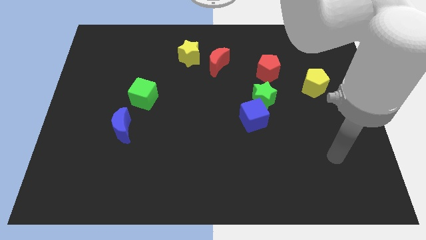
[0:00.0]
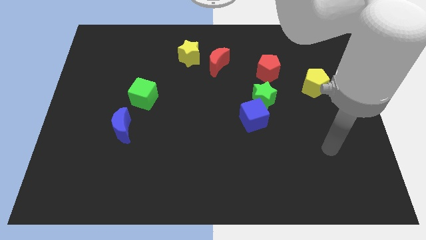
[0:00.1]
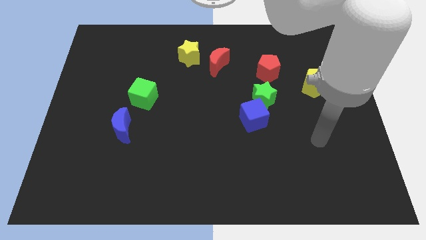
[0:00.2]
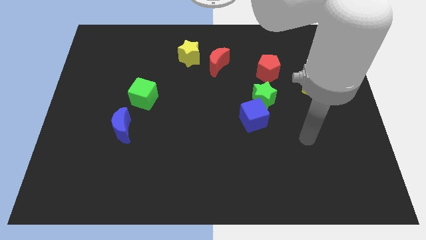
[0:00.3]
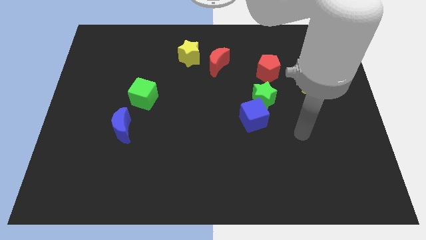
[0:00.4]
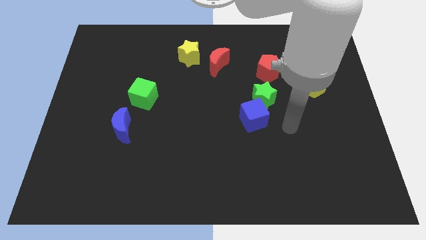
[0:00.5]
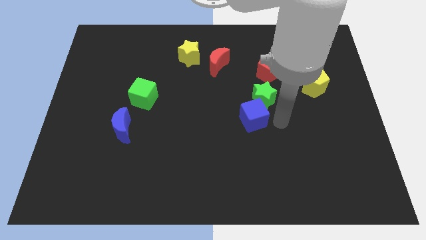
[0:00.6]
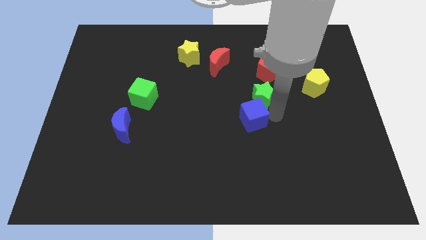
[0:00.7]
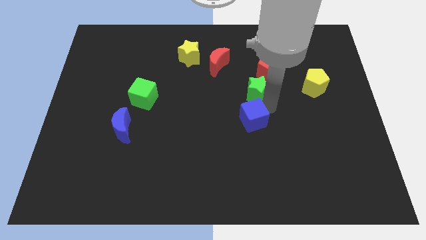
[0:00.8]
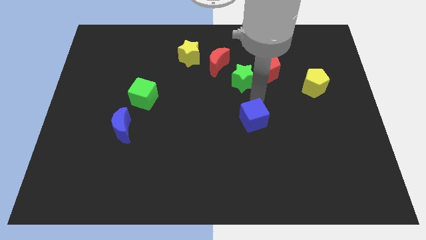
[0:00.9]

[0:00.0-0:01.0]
pull the blue cube apart from the green star

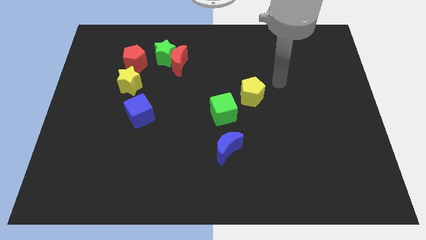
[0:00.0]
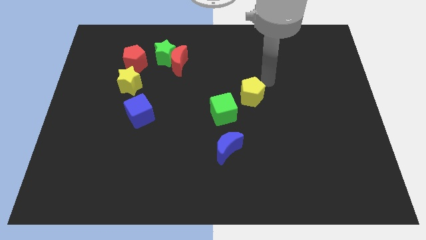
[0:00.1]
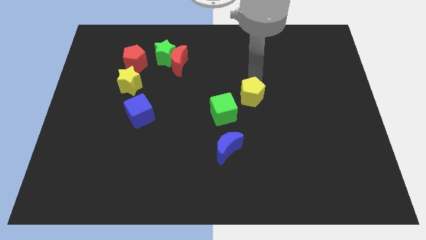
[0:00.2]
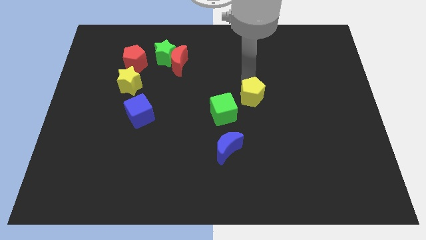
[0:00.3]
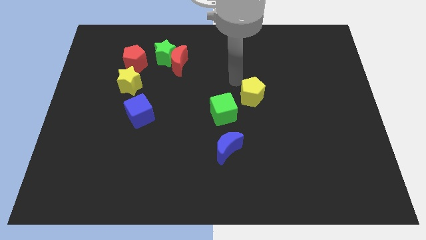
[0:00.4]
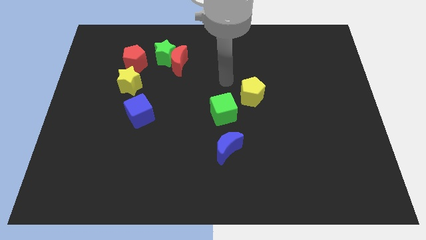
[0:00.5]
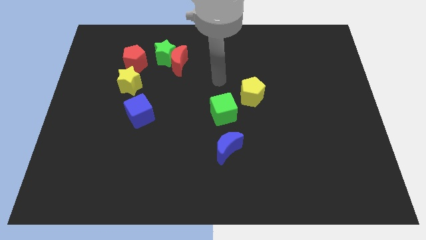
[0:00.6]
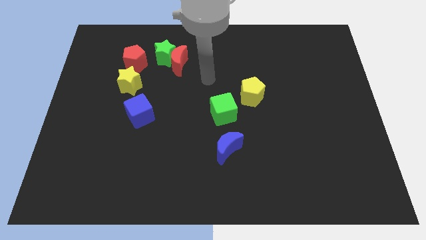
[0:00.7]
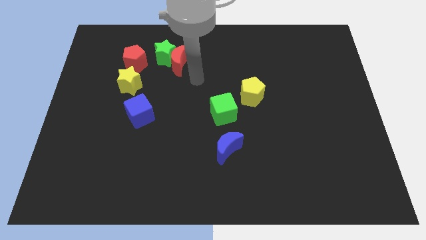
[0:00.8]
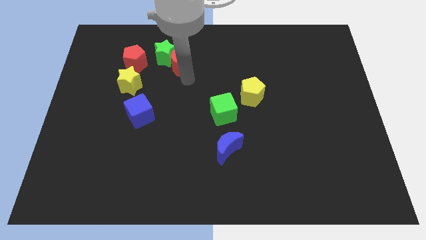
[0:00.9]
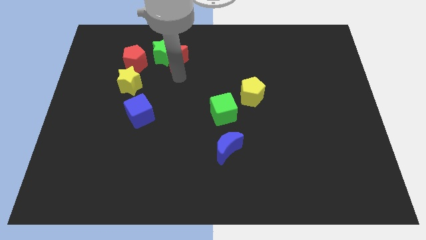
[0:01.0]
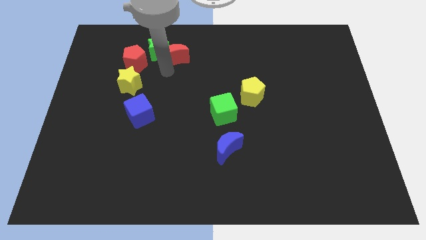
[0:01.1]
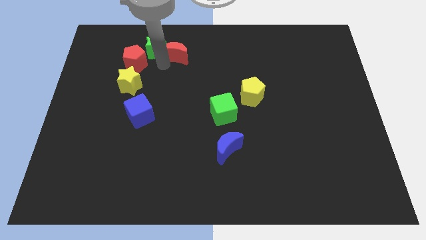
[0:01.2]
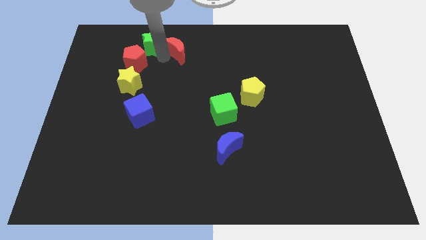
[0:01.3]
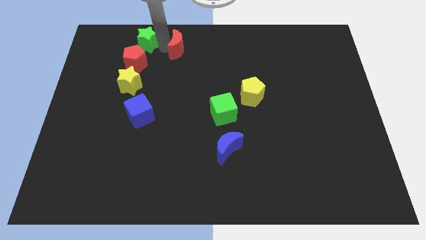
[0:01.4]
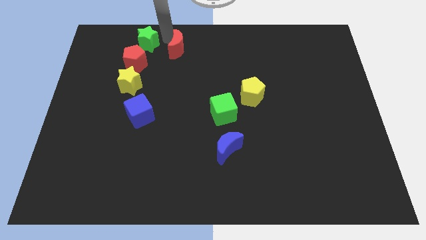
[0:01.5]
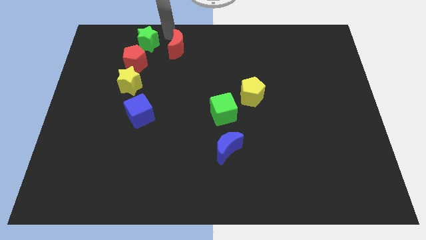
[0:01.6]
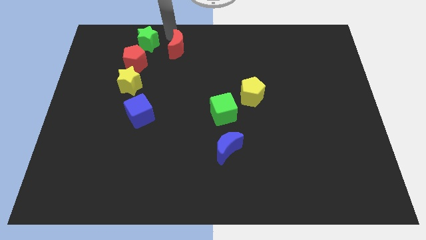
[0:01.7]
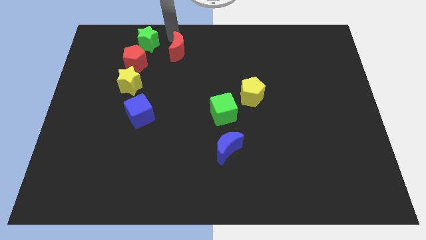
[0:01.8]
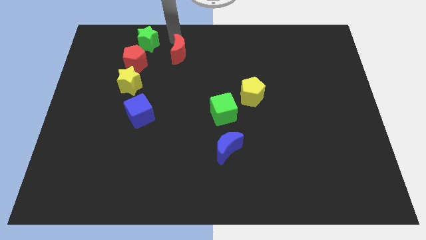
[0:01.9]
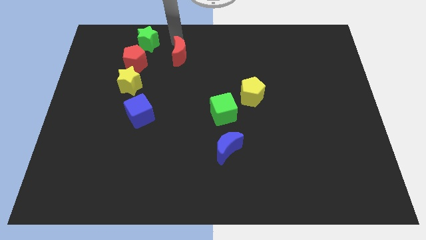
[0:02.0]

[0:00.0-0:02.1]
pull the red moon apart from the green star

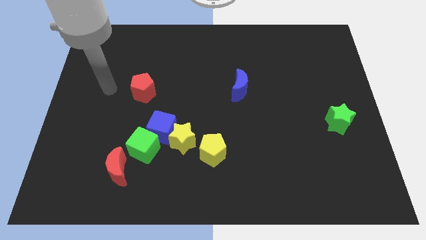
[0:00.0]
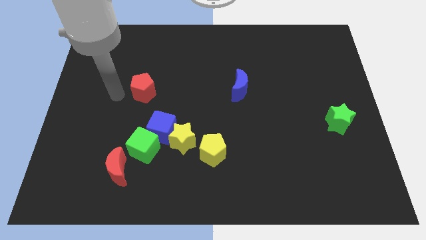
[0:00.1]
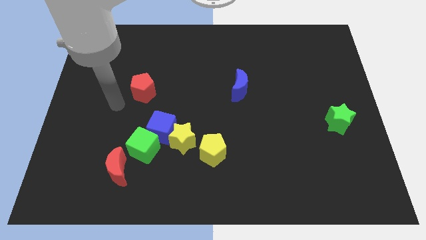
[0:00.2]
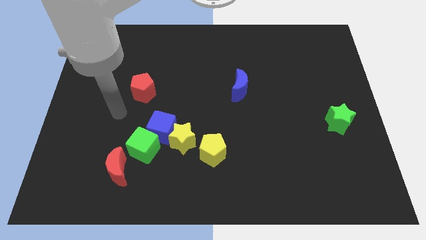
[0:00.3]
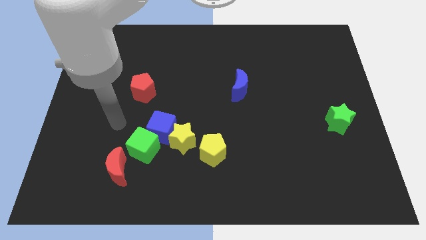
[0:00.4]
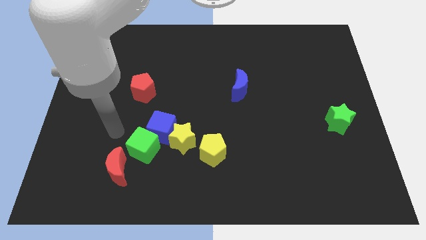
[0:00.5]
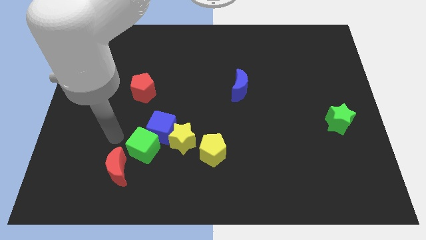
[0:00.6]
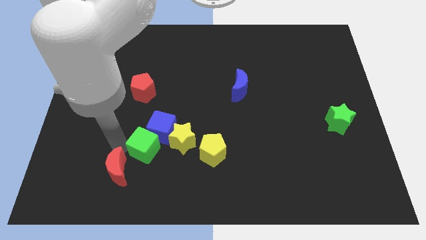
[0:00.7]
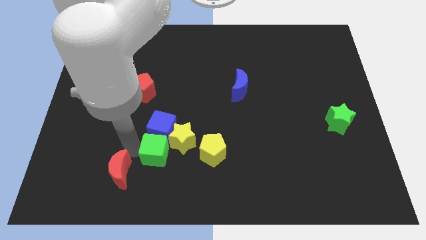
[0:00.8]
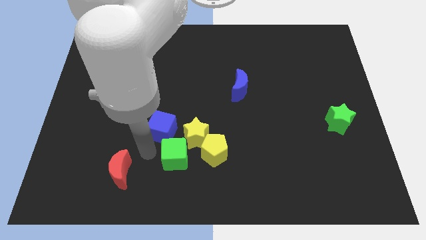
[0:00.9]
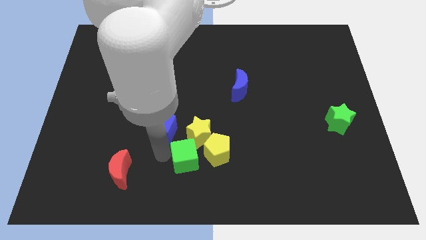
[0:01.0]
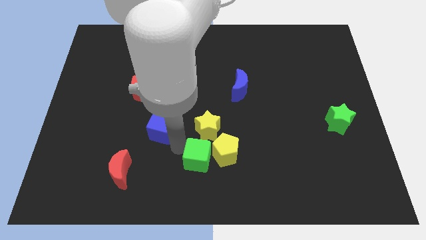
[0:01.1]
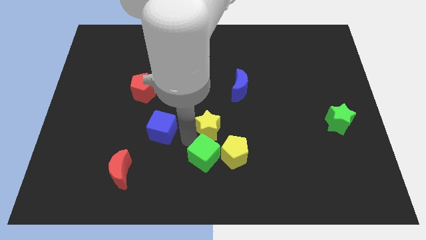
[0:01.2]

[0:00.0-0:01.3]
pull the blue cube apart from the yellow star and green cube

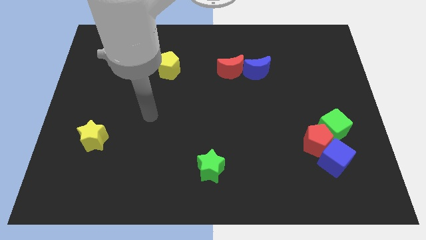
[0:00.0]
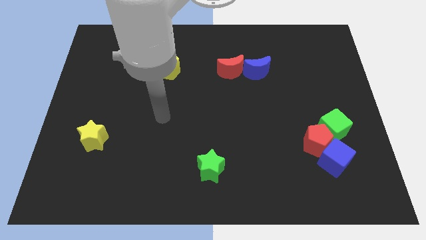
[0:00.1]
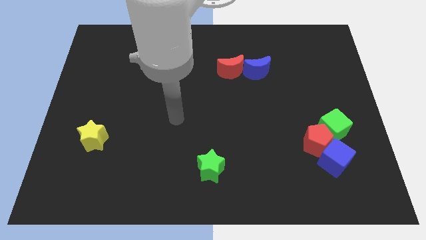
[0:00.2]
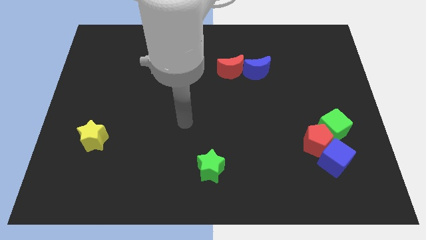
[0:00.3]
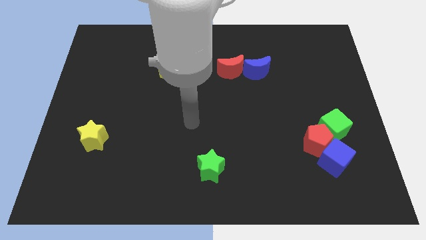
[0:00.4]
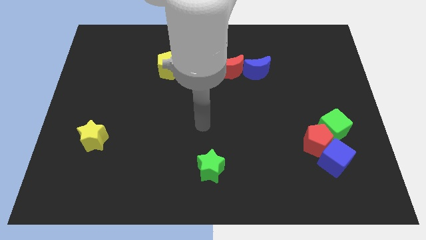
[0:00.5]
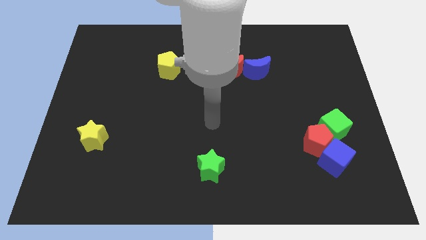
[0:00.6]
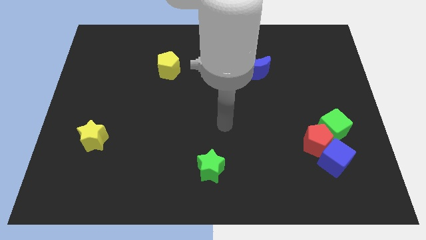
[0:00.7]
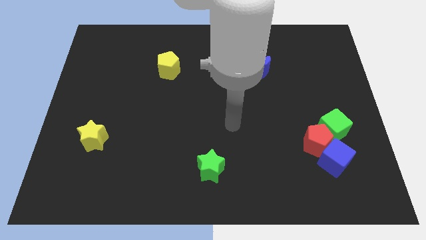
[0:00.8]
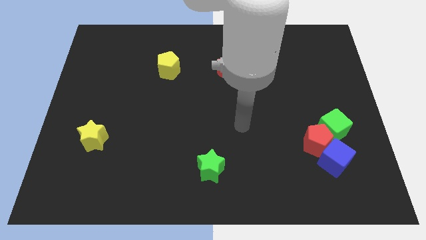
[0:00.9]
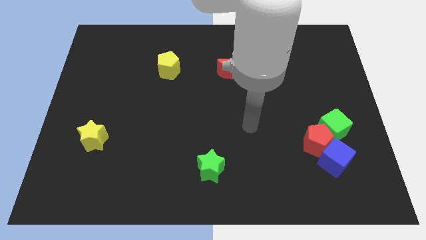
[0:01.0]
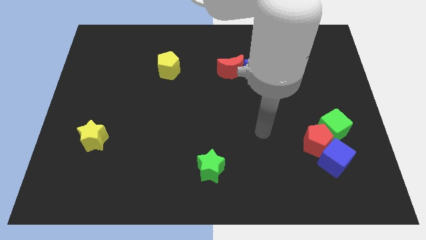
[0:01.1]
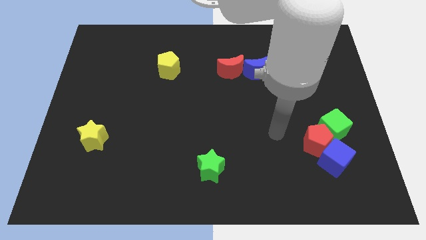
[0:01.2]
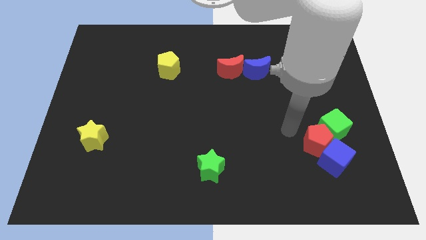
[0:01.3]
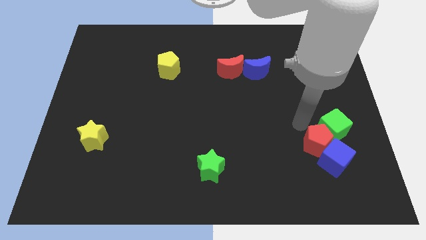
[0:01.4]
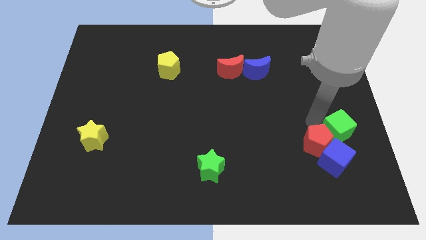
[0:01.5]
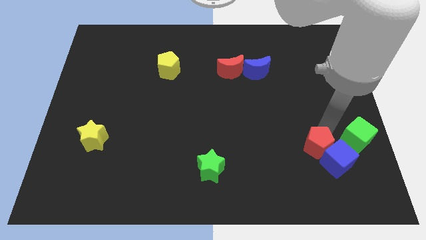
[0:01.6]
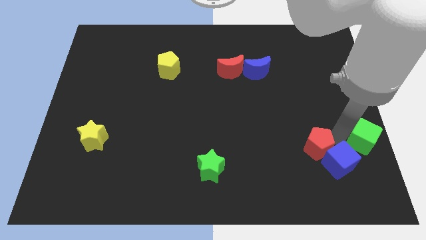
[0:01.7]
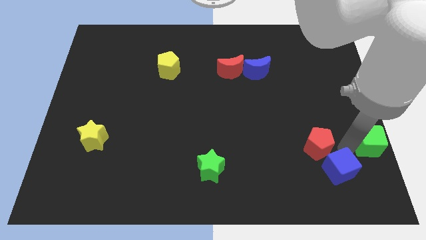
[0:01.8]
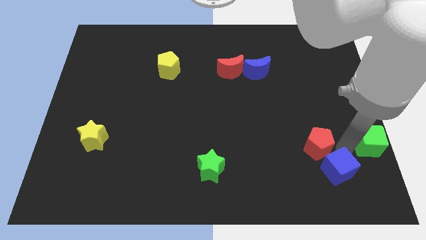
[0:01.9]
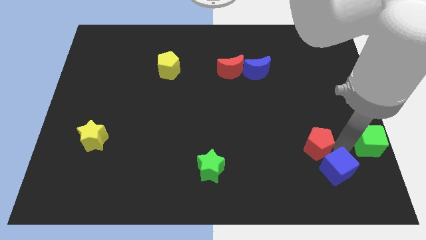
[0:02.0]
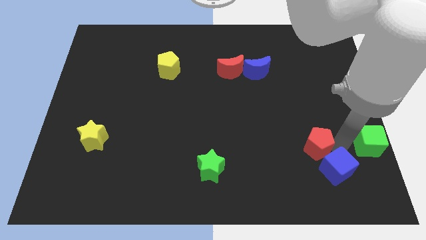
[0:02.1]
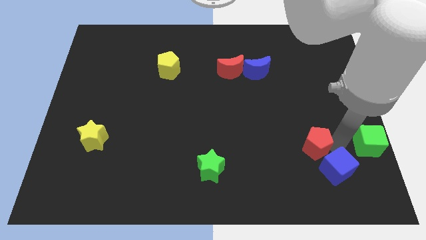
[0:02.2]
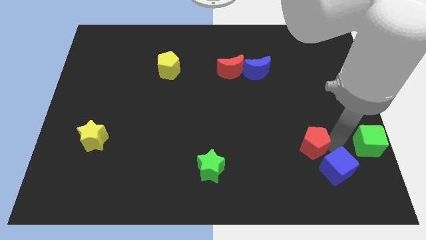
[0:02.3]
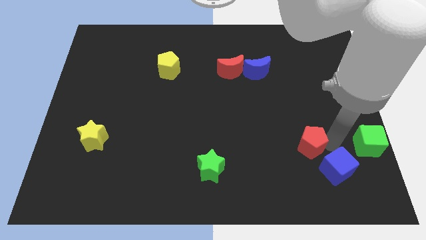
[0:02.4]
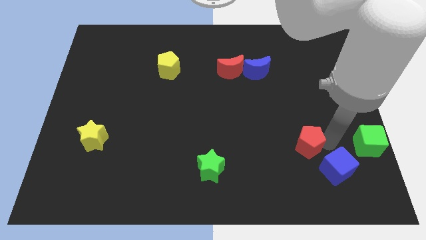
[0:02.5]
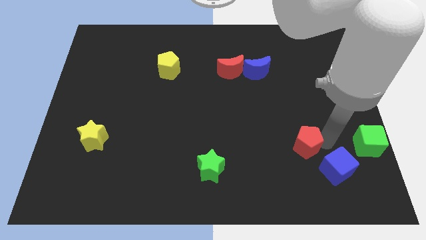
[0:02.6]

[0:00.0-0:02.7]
move the red pentagon away from the blue cube and green cube

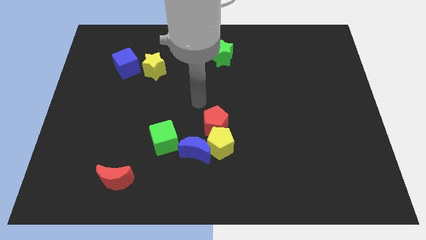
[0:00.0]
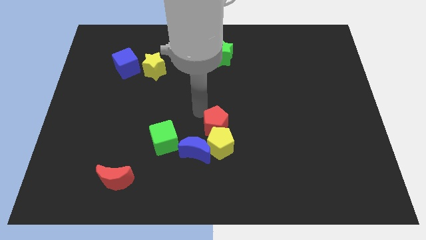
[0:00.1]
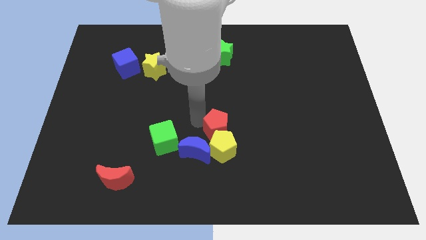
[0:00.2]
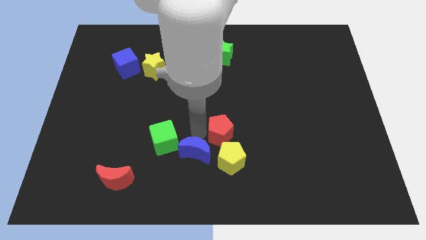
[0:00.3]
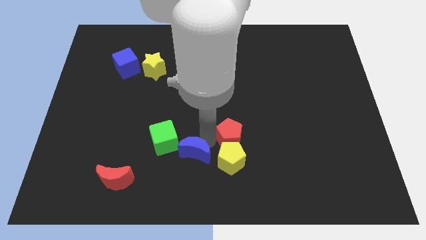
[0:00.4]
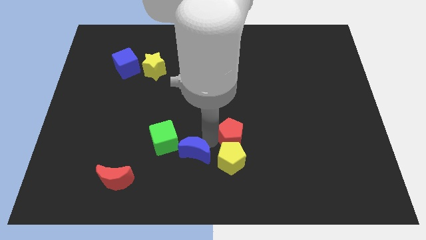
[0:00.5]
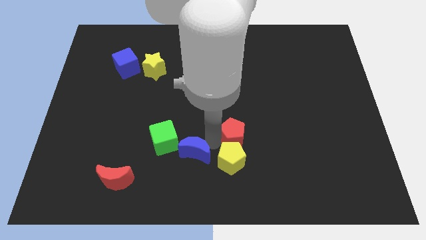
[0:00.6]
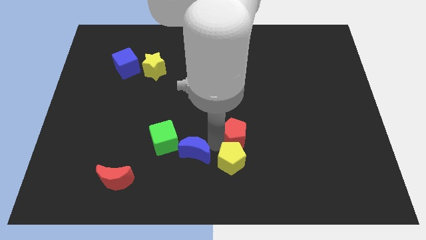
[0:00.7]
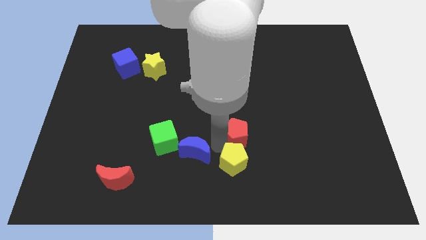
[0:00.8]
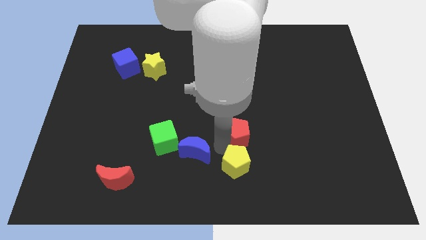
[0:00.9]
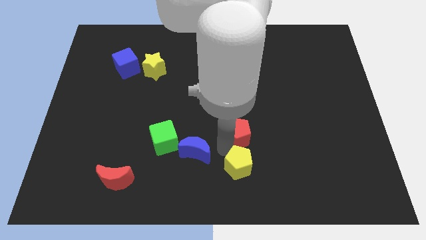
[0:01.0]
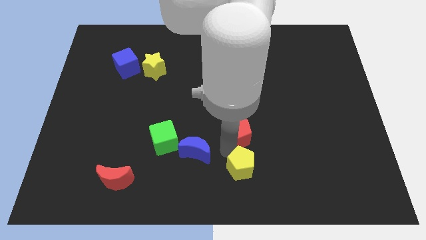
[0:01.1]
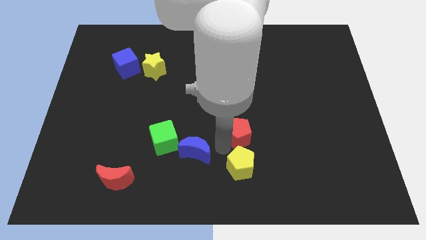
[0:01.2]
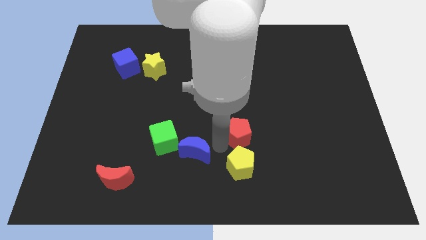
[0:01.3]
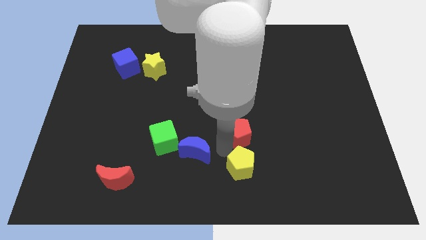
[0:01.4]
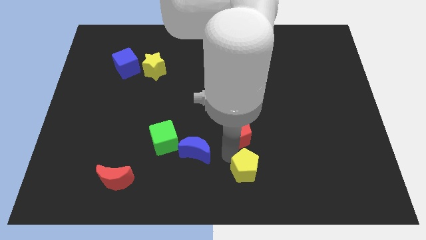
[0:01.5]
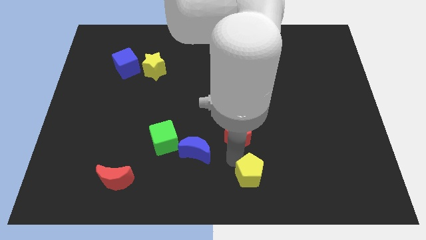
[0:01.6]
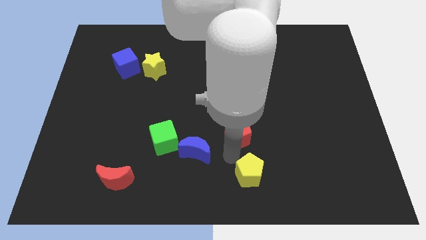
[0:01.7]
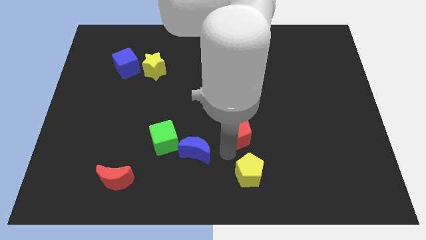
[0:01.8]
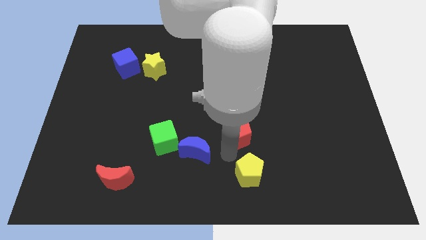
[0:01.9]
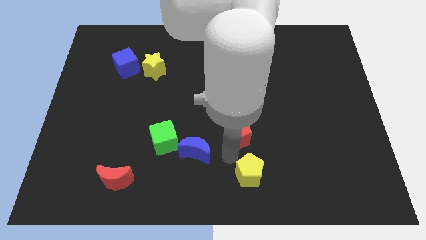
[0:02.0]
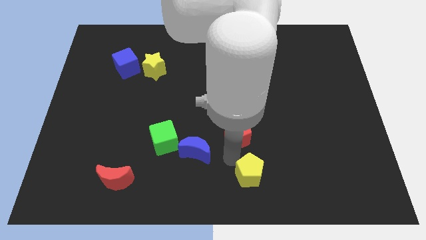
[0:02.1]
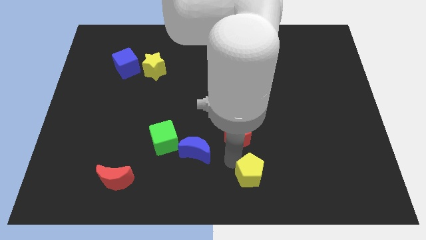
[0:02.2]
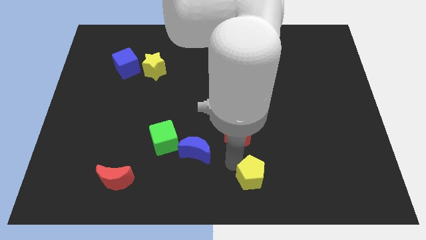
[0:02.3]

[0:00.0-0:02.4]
separate the yellow pentagon from the blue moon and red pentagon
